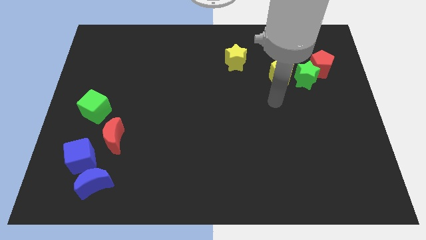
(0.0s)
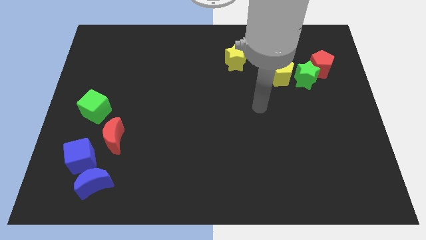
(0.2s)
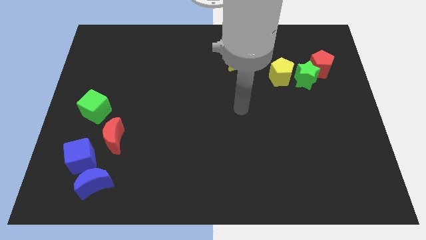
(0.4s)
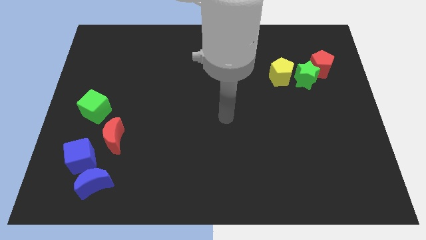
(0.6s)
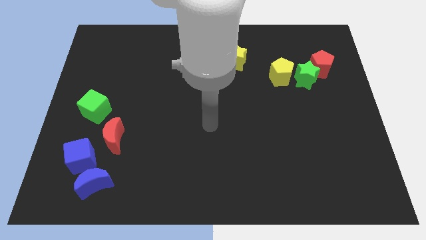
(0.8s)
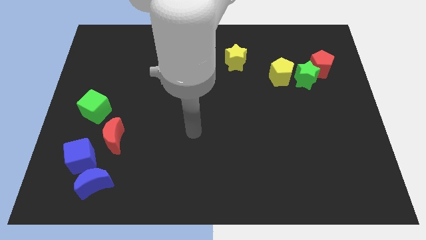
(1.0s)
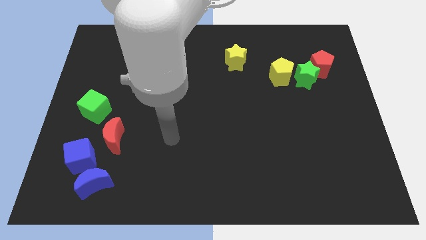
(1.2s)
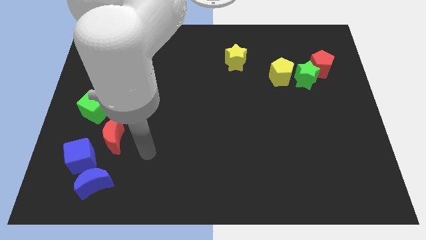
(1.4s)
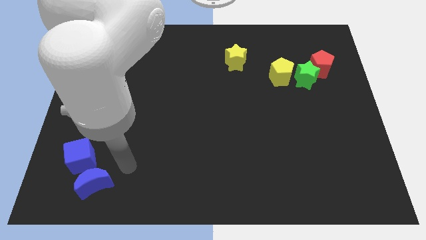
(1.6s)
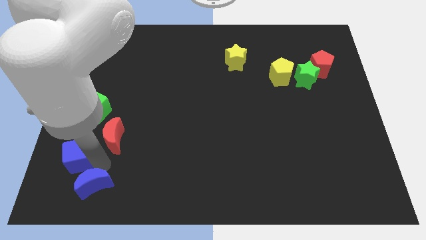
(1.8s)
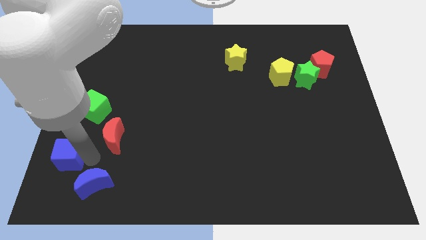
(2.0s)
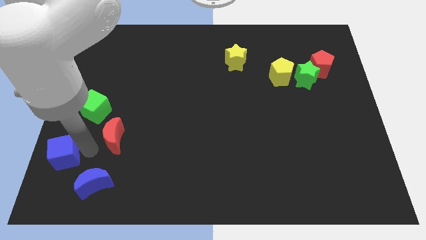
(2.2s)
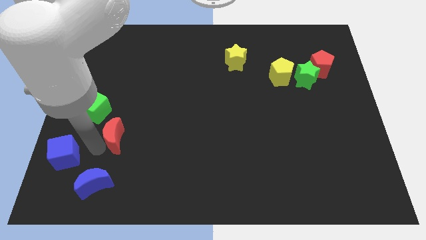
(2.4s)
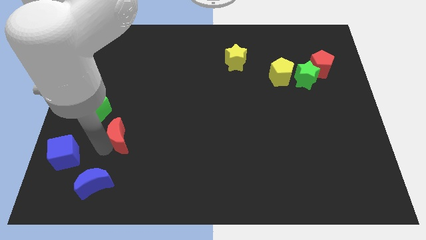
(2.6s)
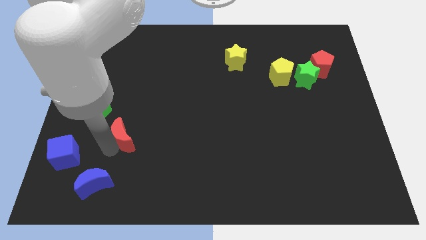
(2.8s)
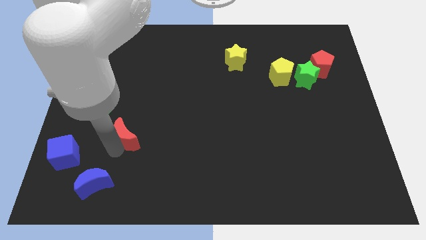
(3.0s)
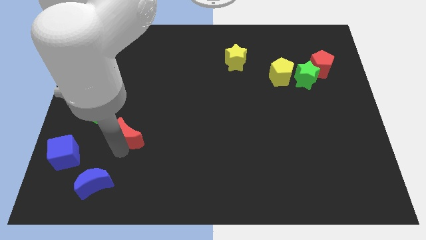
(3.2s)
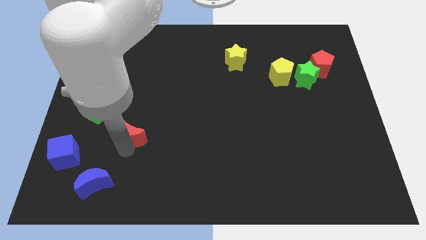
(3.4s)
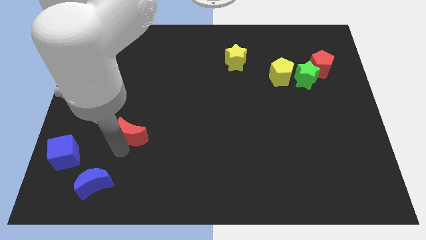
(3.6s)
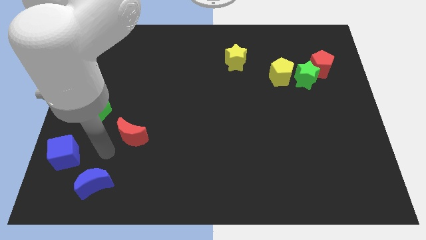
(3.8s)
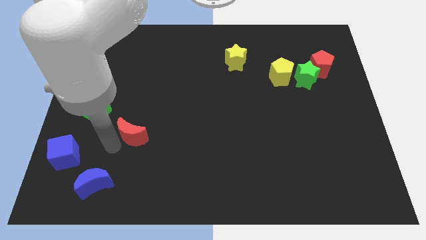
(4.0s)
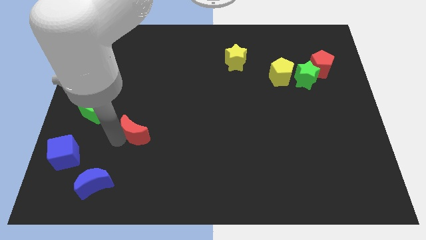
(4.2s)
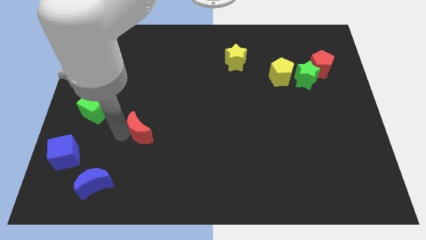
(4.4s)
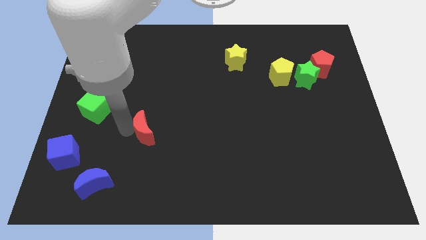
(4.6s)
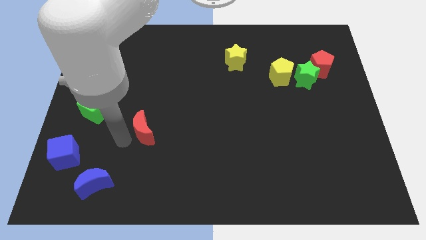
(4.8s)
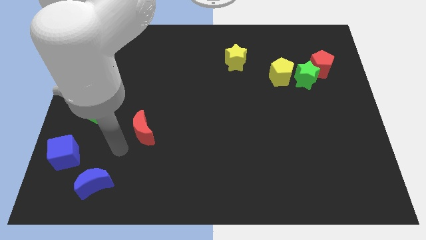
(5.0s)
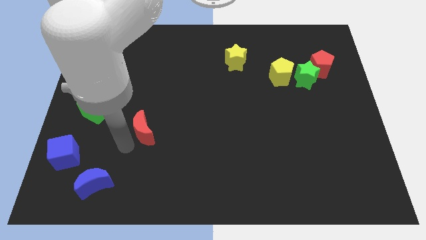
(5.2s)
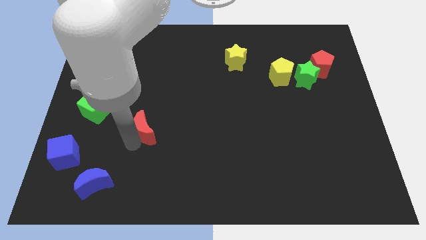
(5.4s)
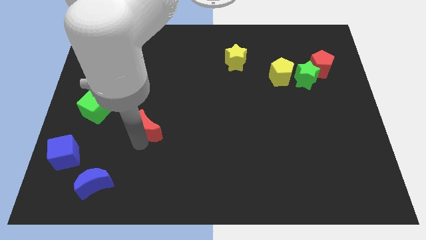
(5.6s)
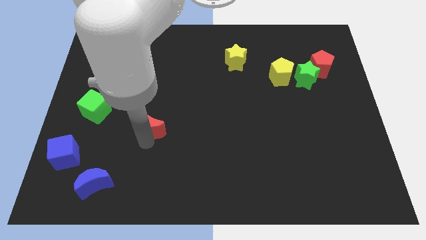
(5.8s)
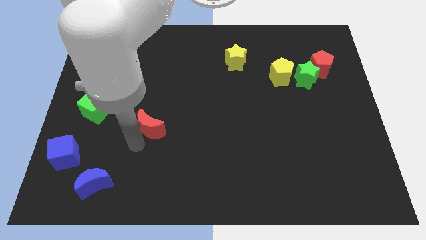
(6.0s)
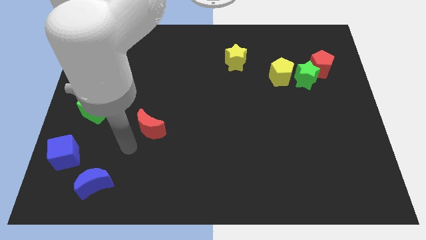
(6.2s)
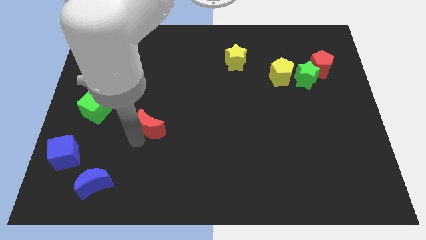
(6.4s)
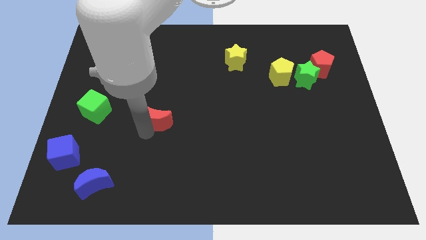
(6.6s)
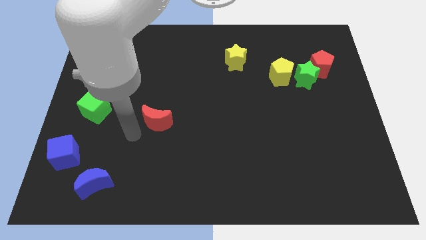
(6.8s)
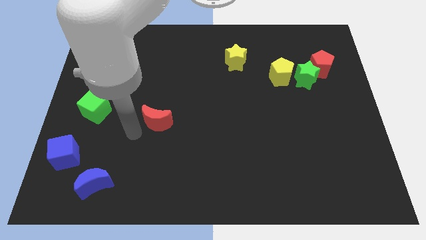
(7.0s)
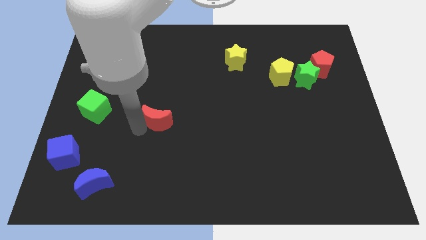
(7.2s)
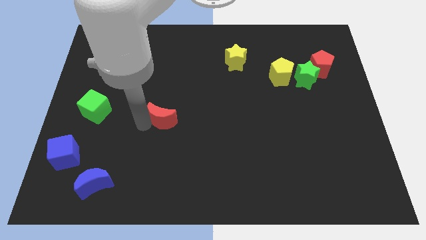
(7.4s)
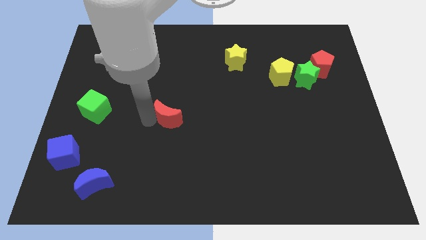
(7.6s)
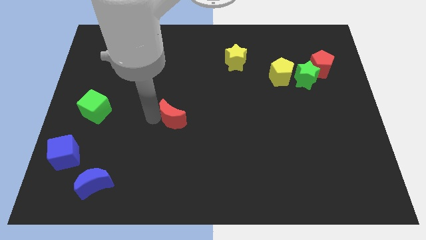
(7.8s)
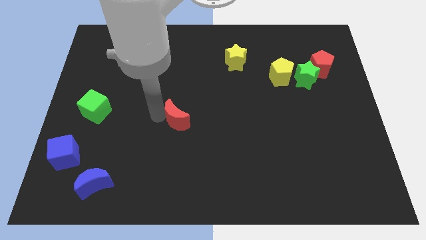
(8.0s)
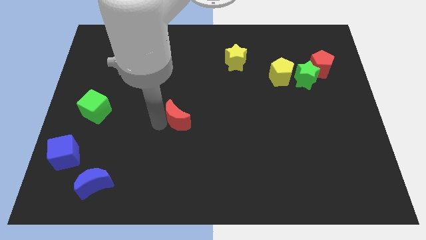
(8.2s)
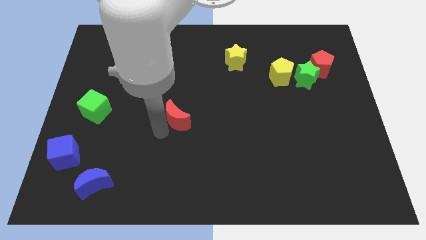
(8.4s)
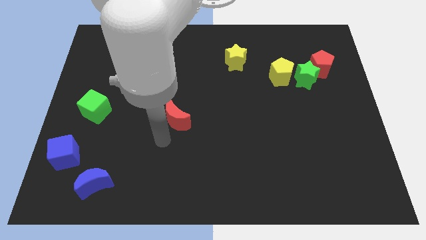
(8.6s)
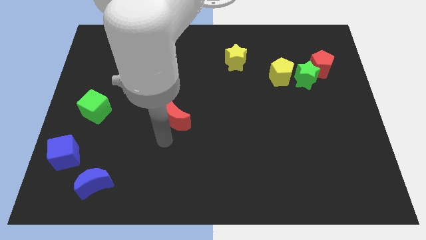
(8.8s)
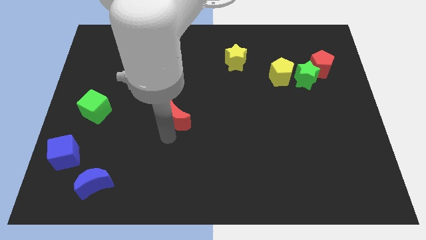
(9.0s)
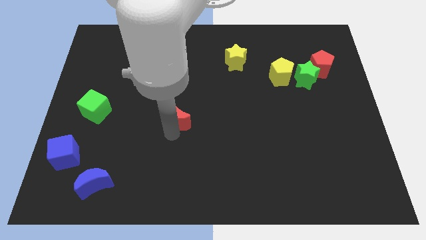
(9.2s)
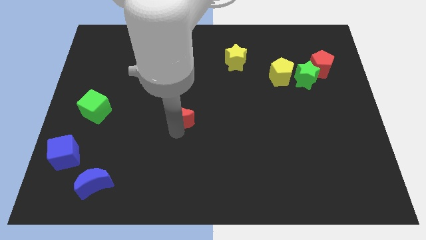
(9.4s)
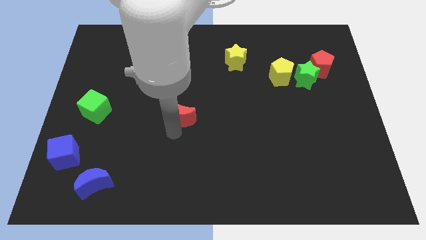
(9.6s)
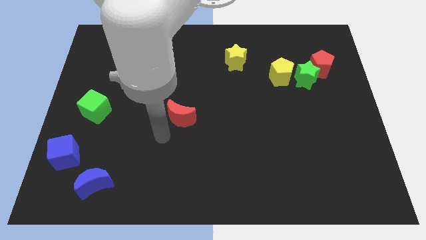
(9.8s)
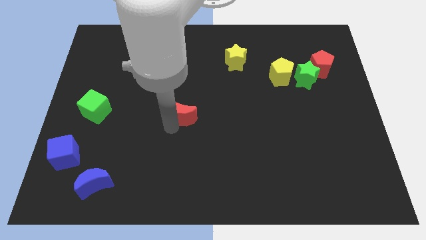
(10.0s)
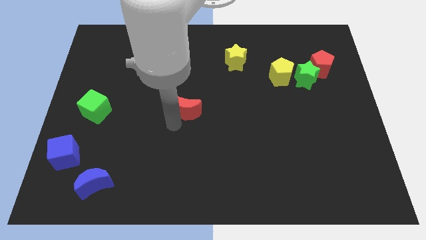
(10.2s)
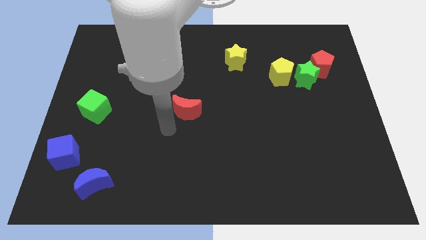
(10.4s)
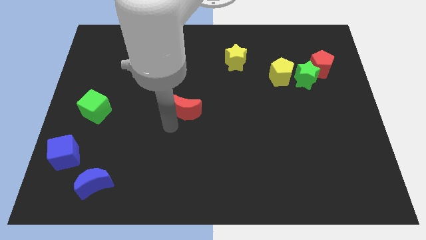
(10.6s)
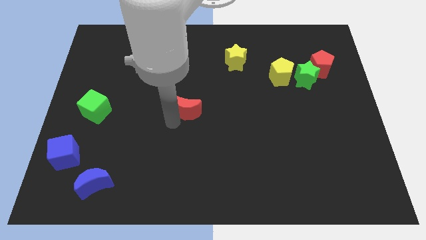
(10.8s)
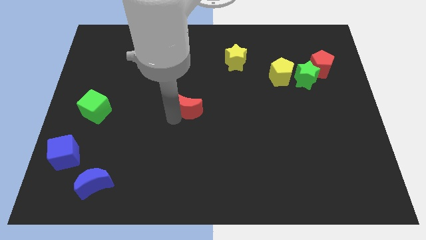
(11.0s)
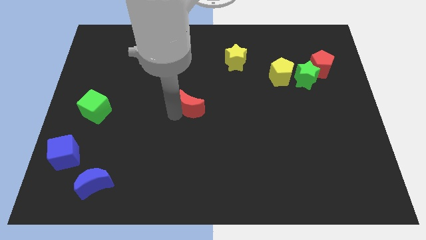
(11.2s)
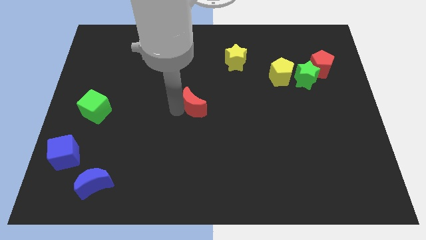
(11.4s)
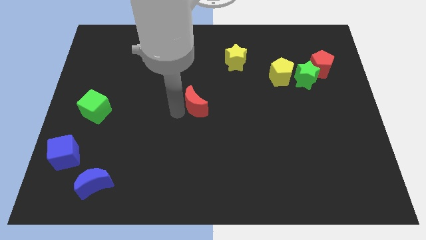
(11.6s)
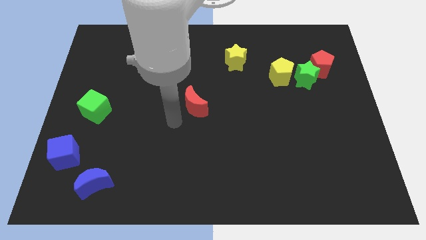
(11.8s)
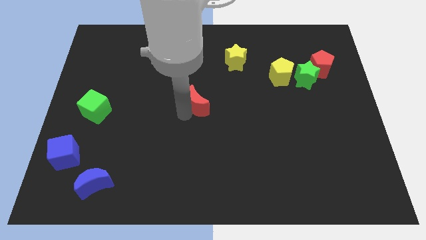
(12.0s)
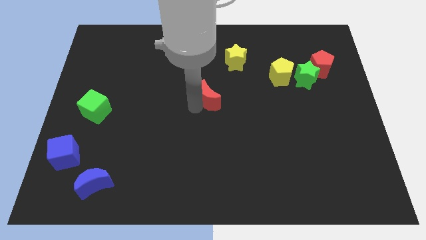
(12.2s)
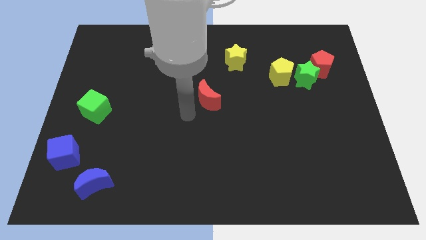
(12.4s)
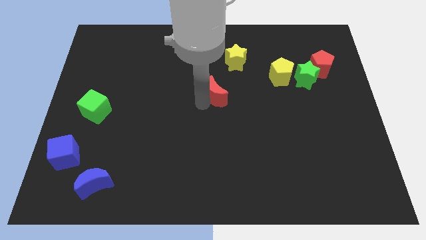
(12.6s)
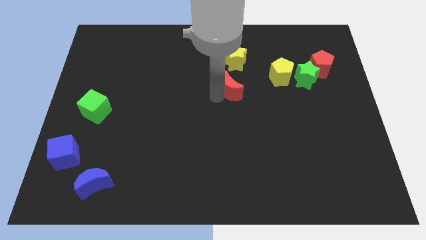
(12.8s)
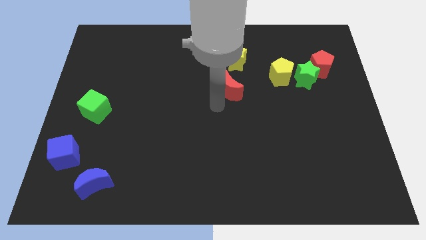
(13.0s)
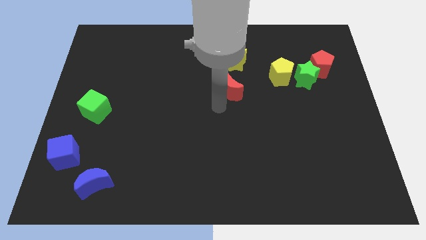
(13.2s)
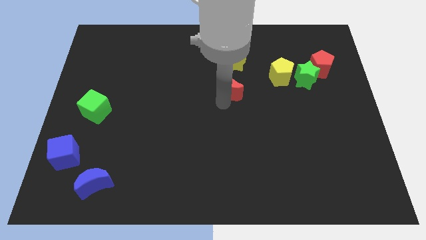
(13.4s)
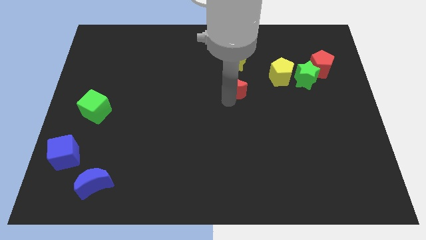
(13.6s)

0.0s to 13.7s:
push the red moon to the left of the yellow pentagon
